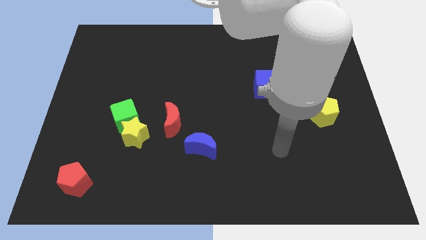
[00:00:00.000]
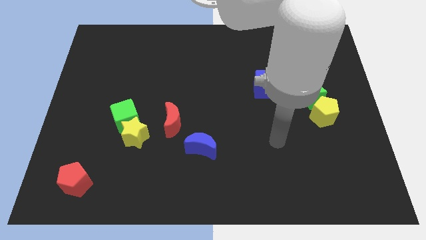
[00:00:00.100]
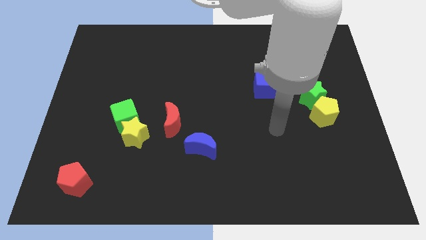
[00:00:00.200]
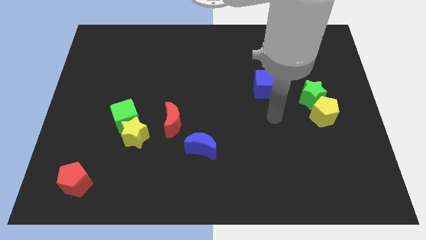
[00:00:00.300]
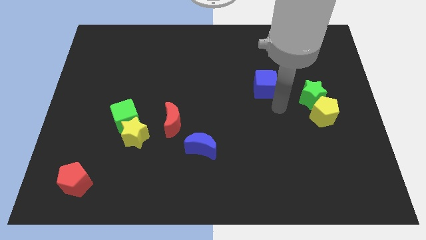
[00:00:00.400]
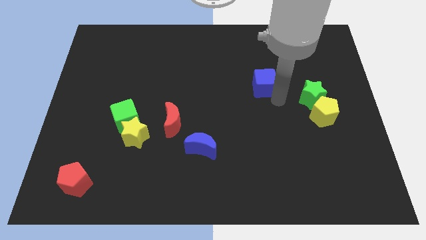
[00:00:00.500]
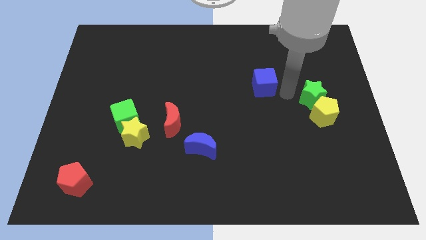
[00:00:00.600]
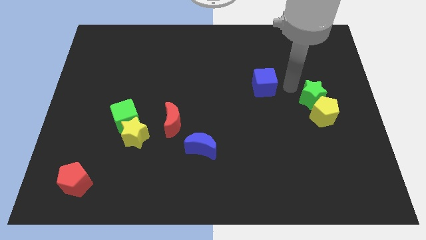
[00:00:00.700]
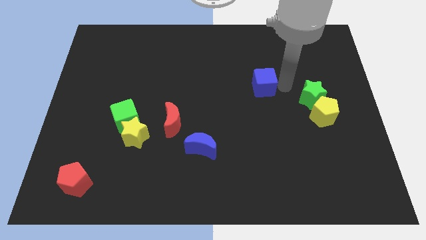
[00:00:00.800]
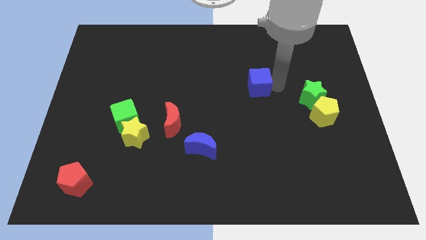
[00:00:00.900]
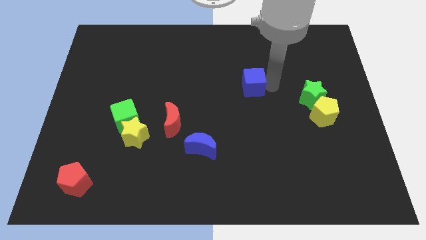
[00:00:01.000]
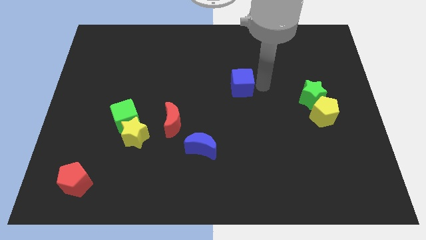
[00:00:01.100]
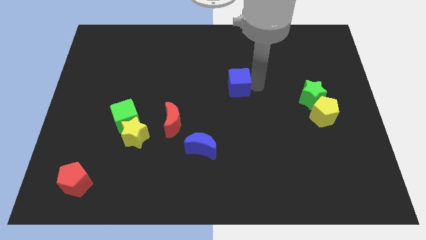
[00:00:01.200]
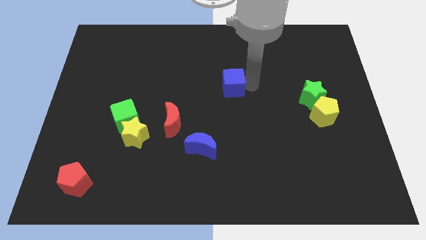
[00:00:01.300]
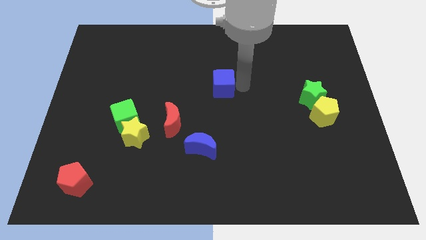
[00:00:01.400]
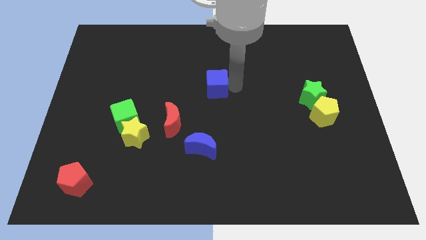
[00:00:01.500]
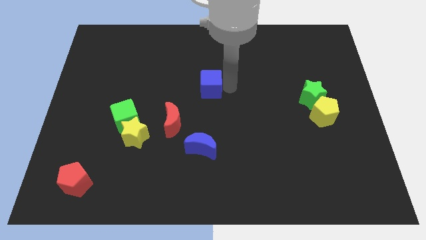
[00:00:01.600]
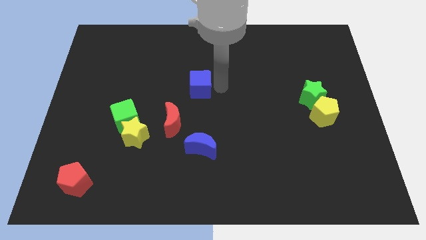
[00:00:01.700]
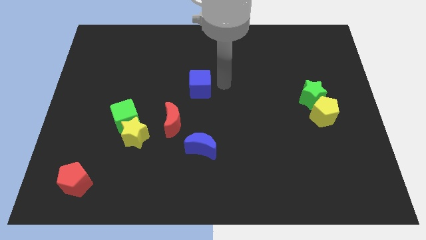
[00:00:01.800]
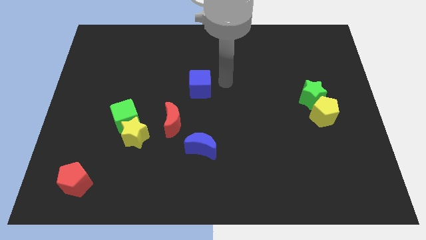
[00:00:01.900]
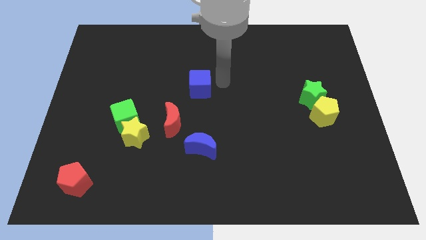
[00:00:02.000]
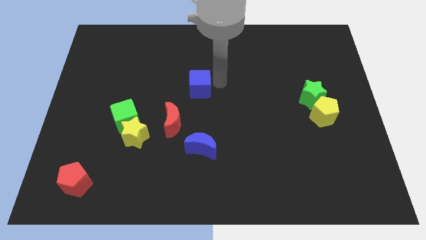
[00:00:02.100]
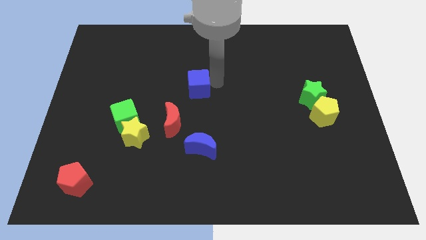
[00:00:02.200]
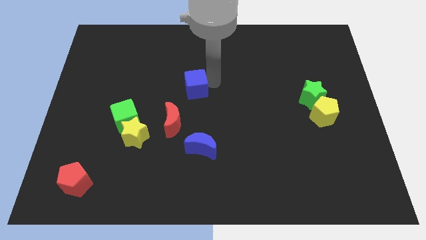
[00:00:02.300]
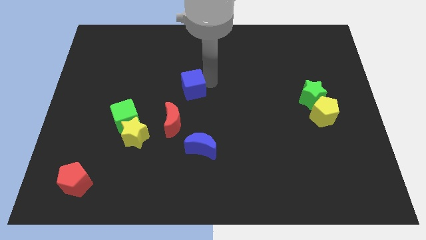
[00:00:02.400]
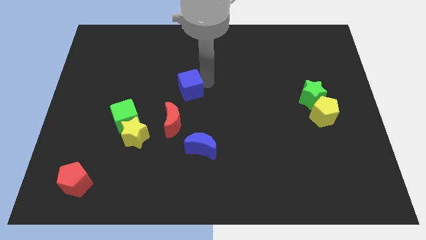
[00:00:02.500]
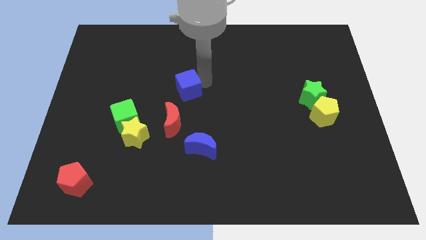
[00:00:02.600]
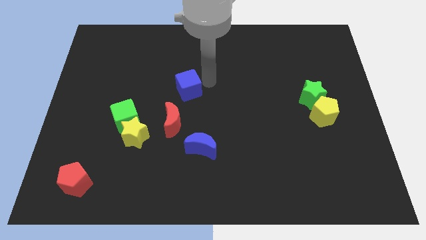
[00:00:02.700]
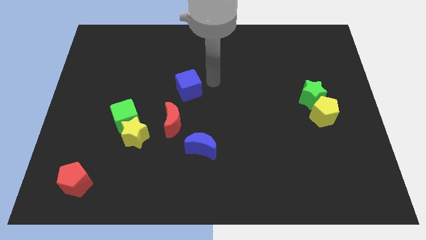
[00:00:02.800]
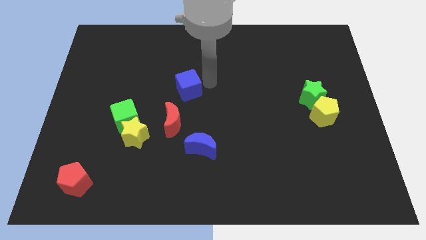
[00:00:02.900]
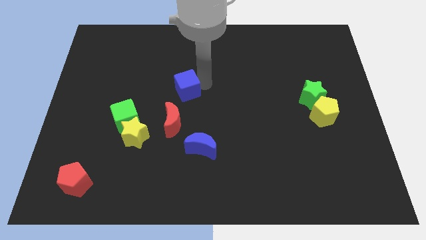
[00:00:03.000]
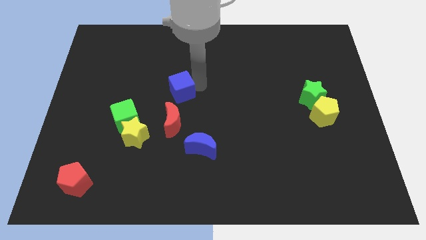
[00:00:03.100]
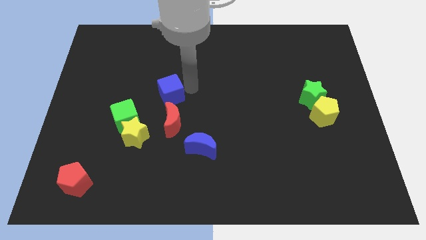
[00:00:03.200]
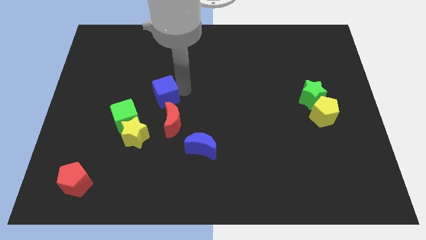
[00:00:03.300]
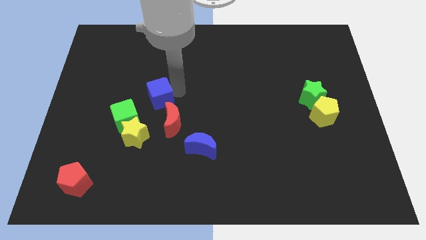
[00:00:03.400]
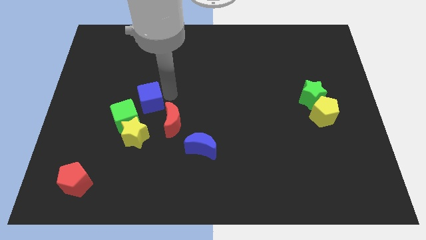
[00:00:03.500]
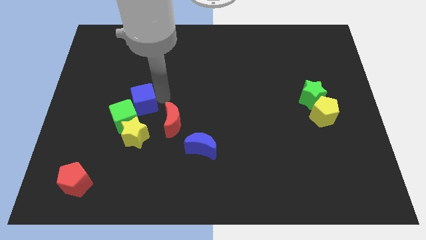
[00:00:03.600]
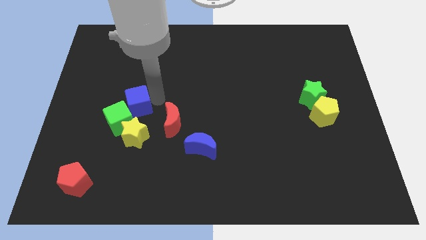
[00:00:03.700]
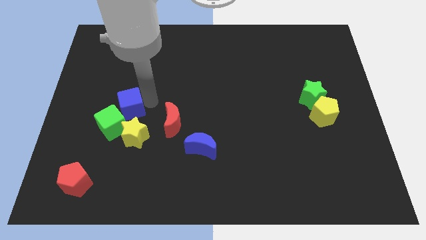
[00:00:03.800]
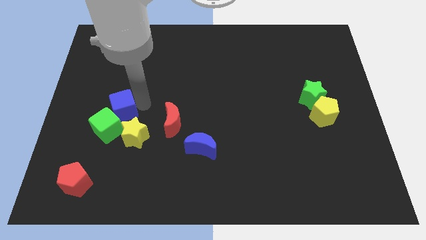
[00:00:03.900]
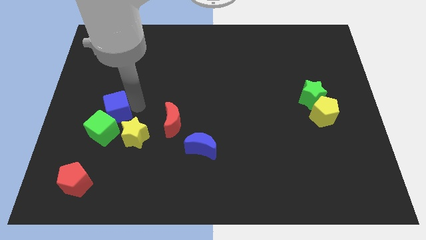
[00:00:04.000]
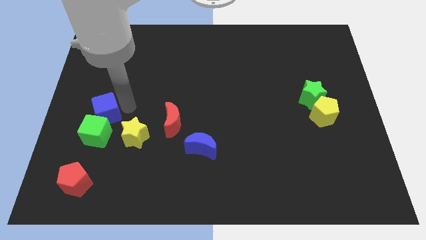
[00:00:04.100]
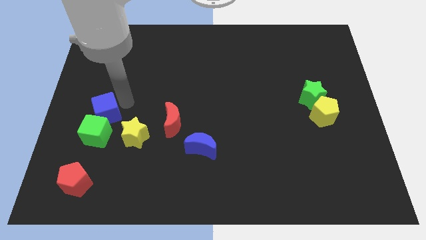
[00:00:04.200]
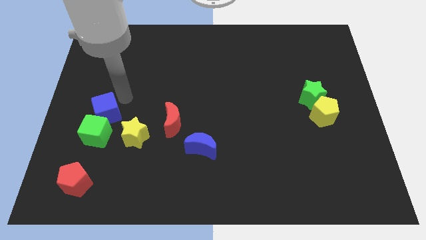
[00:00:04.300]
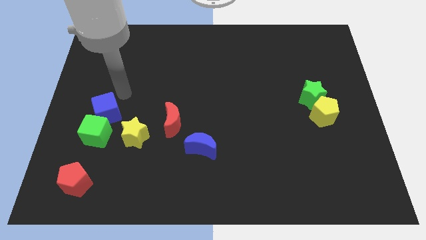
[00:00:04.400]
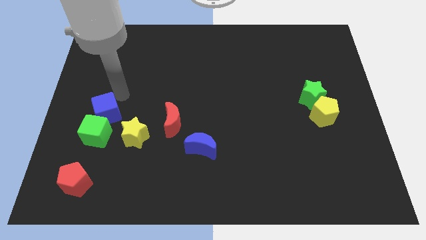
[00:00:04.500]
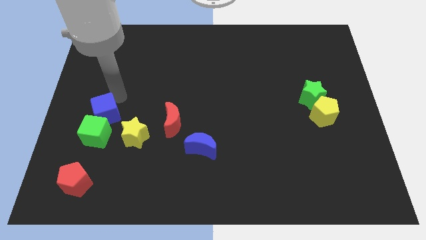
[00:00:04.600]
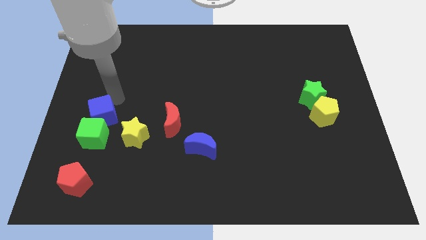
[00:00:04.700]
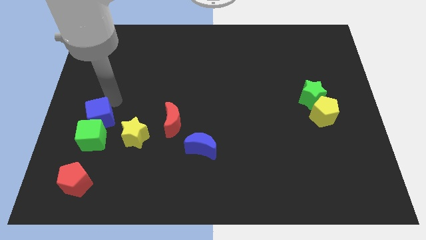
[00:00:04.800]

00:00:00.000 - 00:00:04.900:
put the blue cube left of the yellow star

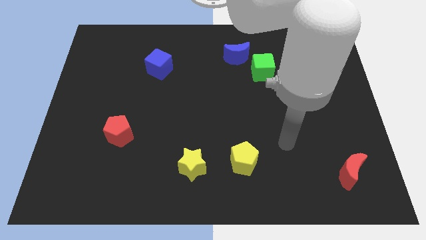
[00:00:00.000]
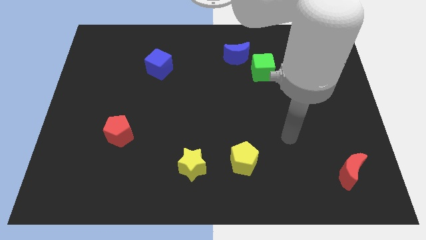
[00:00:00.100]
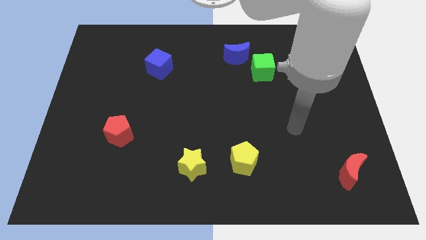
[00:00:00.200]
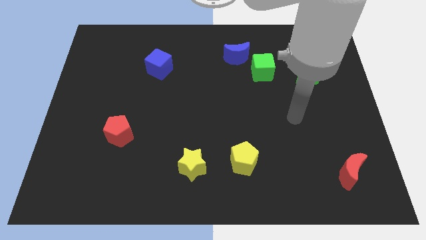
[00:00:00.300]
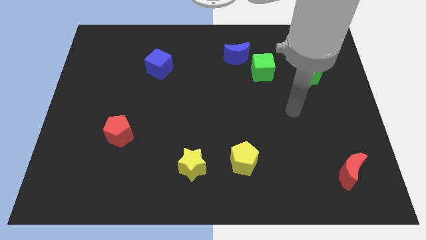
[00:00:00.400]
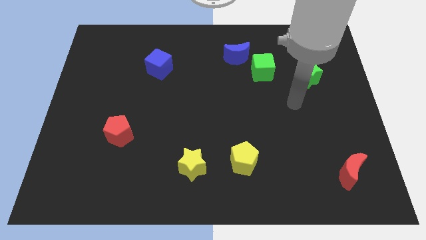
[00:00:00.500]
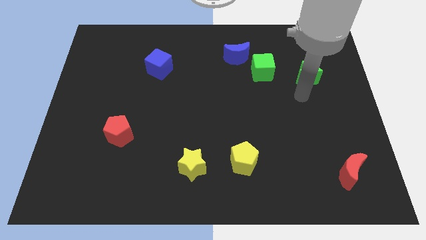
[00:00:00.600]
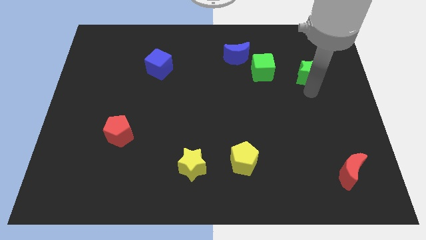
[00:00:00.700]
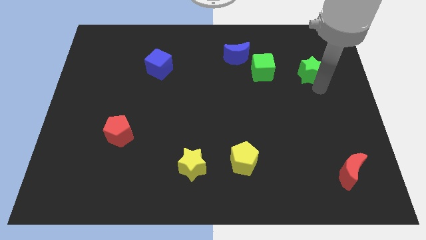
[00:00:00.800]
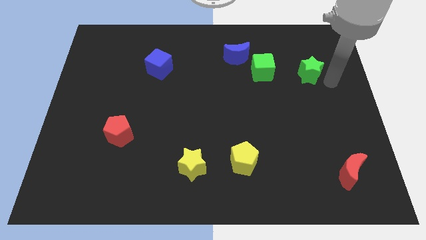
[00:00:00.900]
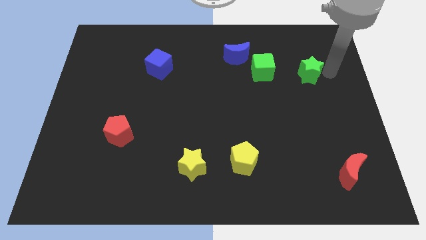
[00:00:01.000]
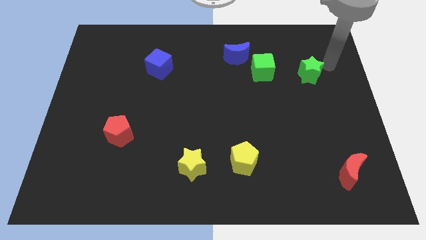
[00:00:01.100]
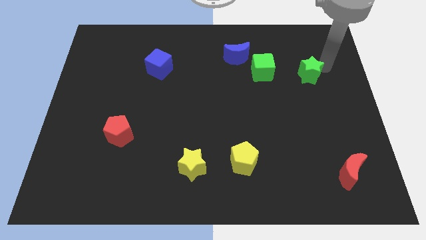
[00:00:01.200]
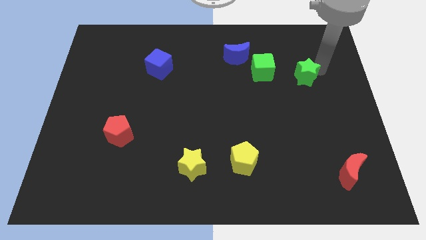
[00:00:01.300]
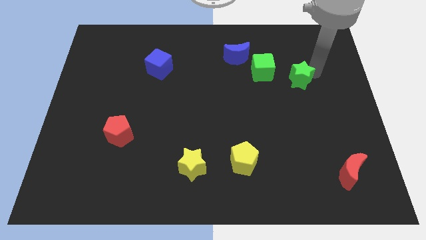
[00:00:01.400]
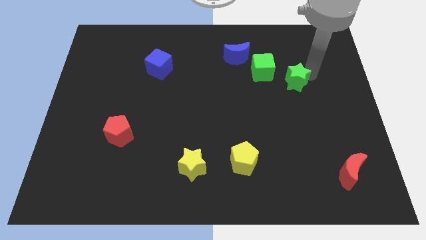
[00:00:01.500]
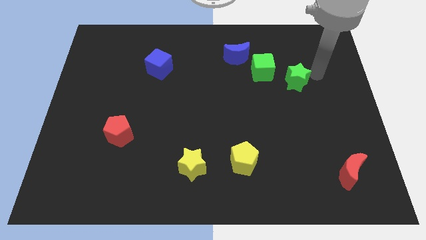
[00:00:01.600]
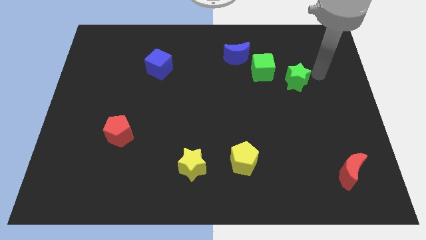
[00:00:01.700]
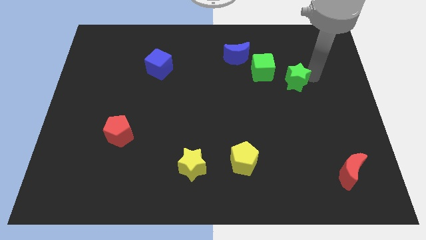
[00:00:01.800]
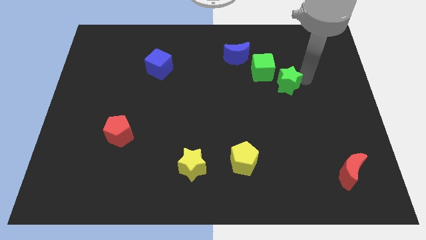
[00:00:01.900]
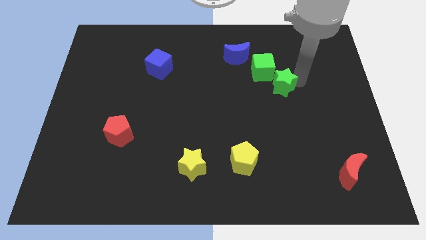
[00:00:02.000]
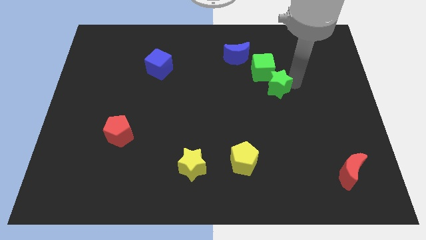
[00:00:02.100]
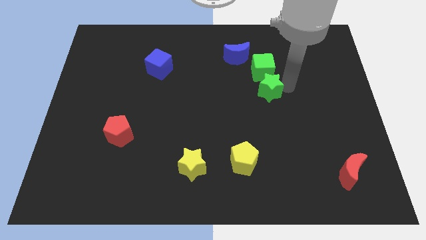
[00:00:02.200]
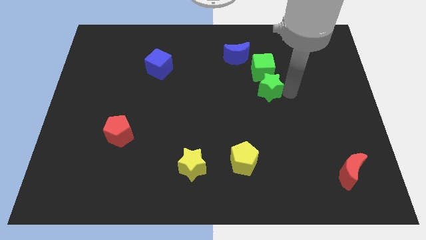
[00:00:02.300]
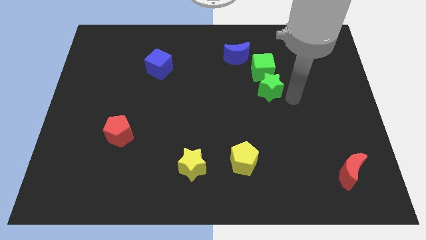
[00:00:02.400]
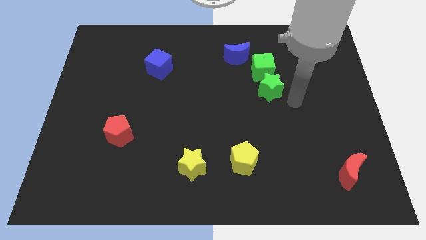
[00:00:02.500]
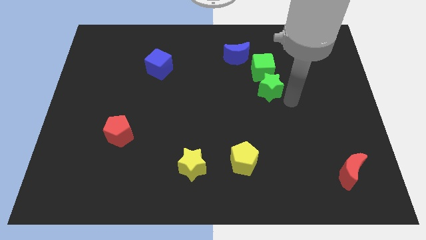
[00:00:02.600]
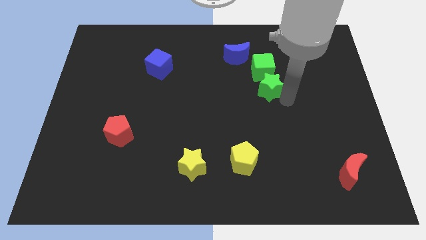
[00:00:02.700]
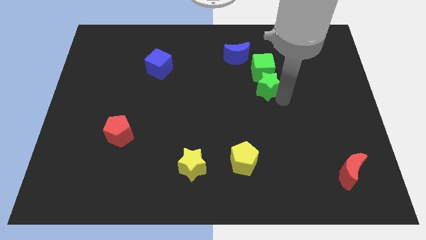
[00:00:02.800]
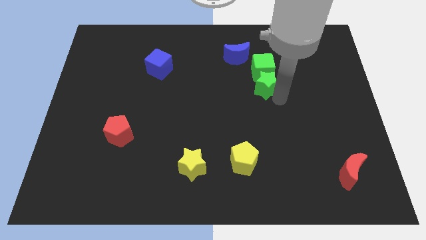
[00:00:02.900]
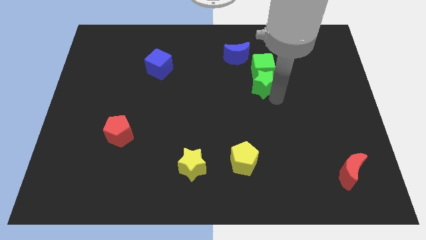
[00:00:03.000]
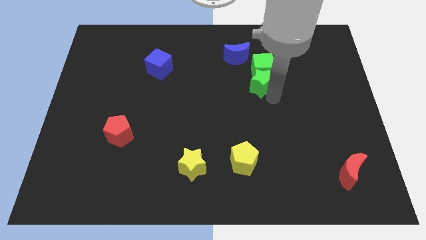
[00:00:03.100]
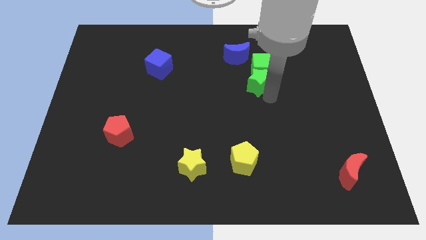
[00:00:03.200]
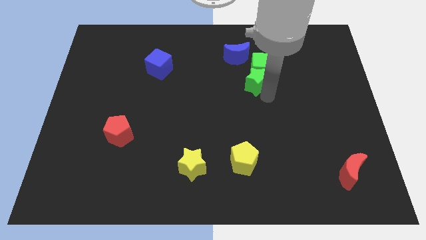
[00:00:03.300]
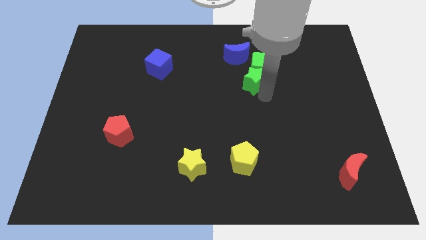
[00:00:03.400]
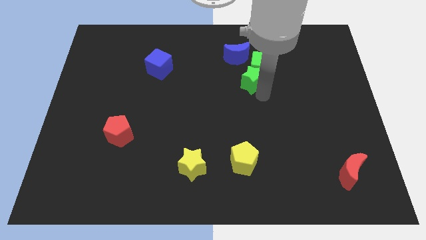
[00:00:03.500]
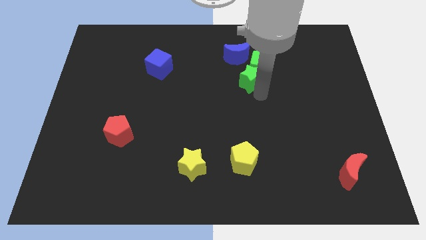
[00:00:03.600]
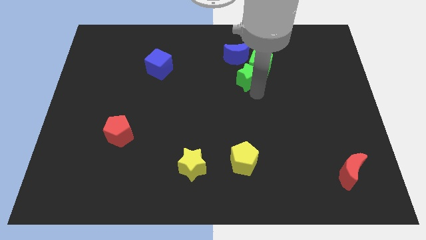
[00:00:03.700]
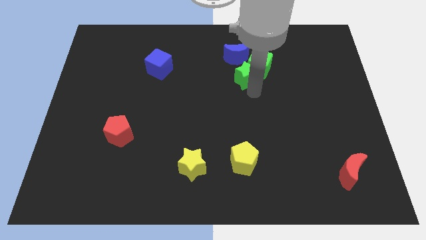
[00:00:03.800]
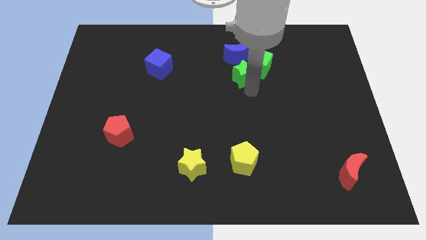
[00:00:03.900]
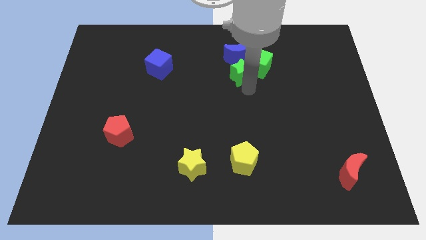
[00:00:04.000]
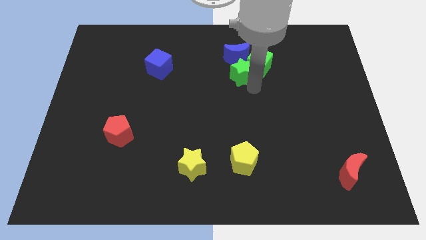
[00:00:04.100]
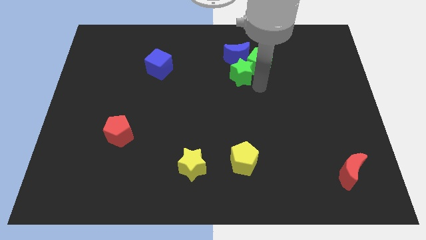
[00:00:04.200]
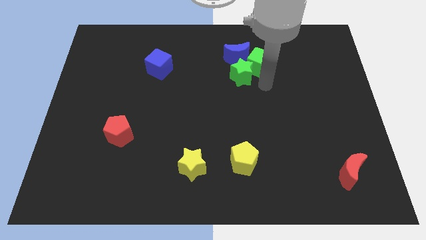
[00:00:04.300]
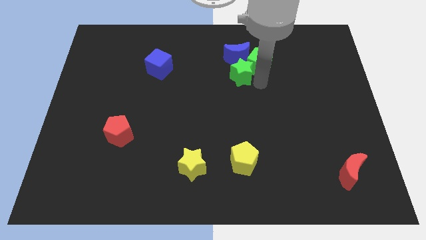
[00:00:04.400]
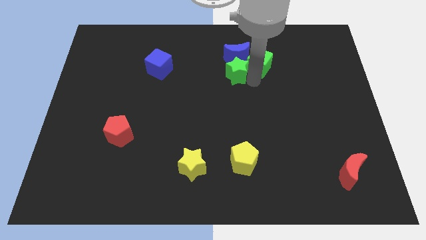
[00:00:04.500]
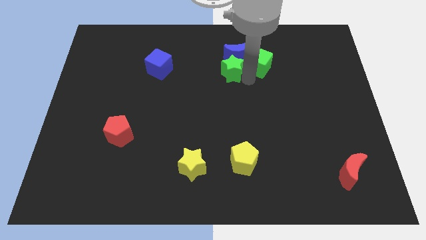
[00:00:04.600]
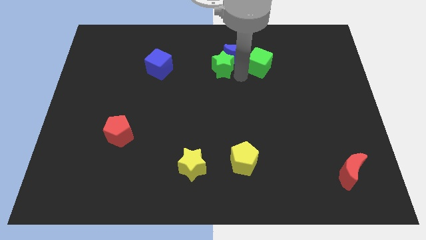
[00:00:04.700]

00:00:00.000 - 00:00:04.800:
slide the green star to the right side of the blue cube
